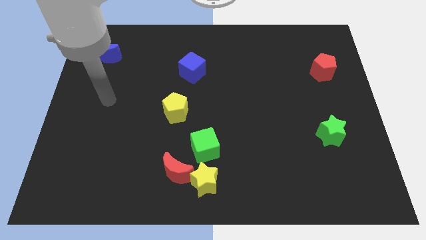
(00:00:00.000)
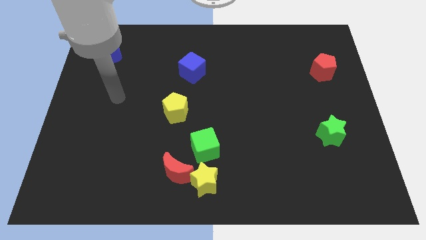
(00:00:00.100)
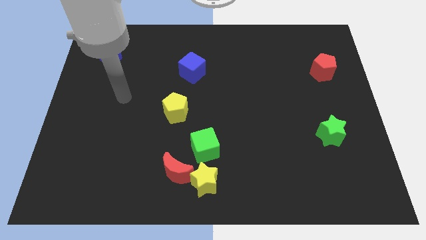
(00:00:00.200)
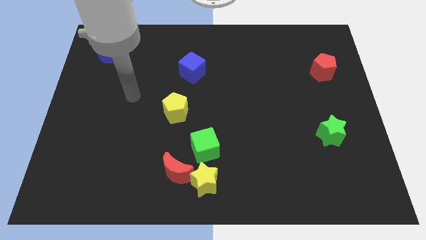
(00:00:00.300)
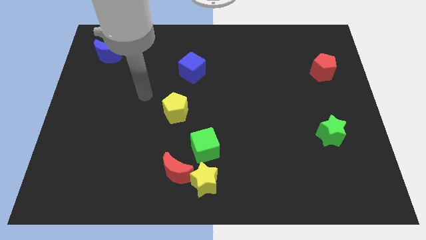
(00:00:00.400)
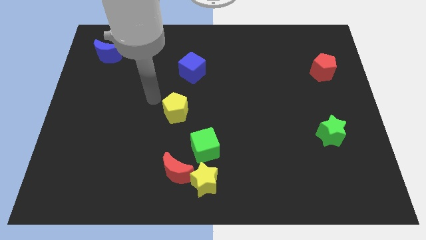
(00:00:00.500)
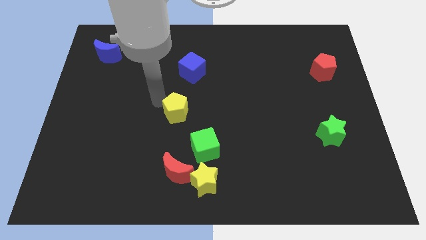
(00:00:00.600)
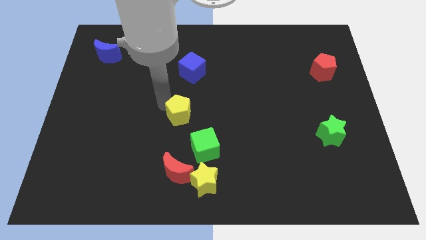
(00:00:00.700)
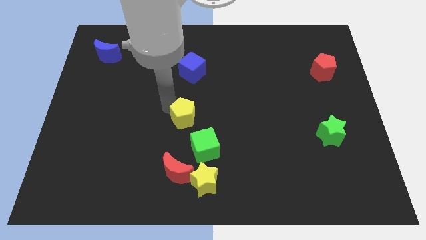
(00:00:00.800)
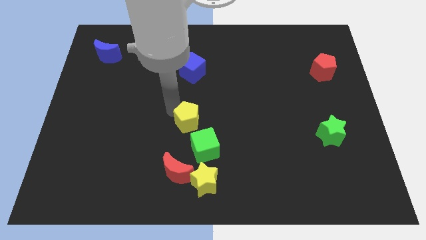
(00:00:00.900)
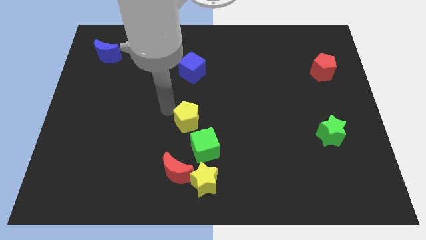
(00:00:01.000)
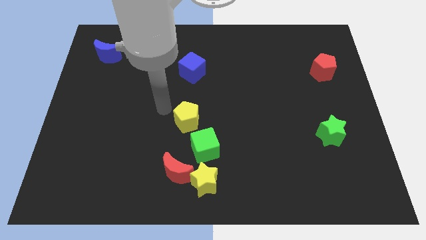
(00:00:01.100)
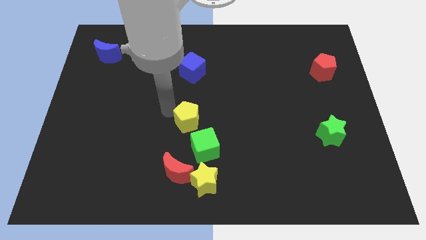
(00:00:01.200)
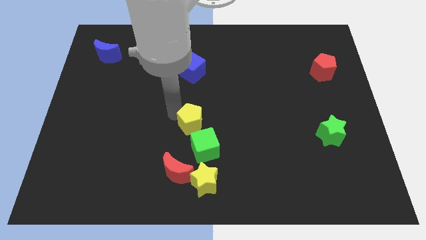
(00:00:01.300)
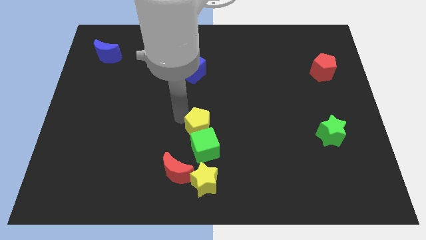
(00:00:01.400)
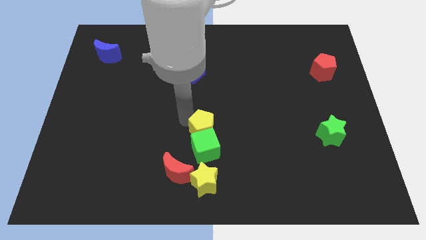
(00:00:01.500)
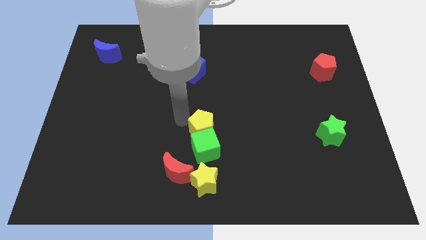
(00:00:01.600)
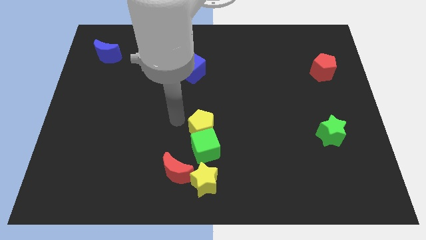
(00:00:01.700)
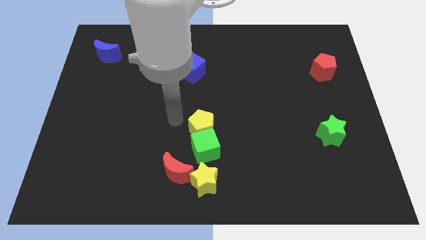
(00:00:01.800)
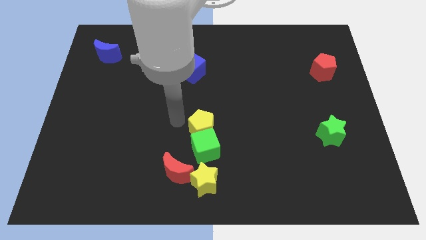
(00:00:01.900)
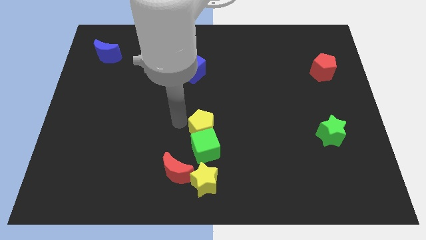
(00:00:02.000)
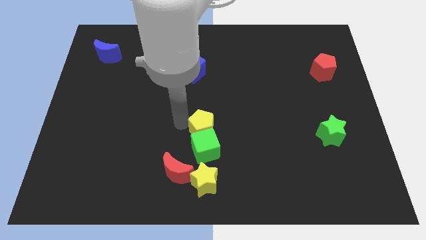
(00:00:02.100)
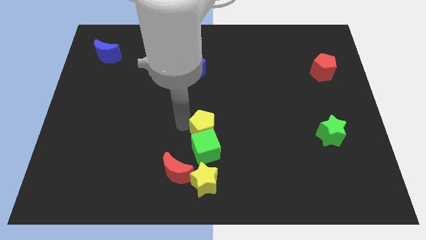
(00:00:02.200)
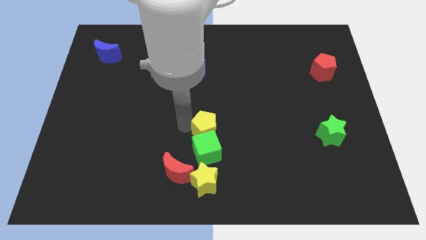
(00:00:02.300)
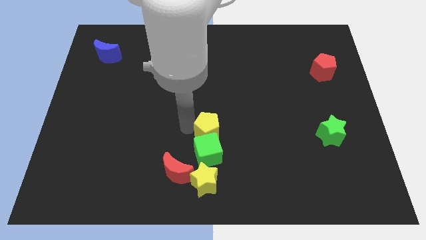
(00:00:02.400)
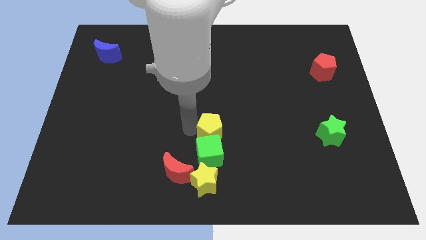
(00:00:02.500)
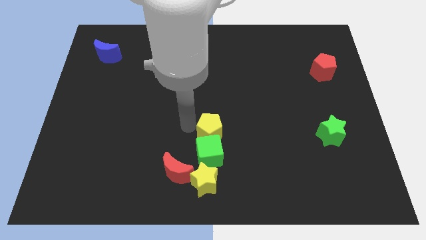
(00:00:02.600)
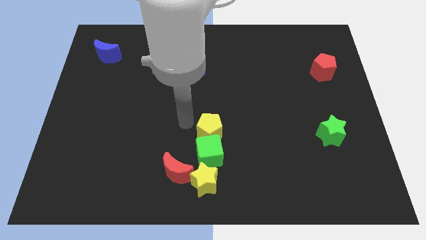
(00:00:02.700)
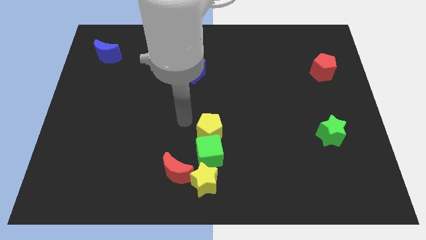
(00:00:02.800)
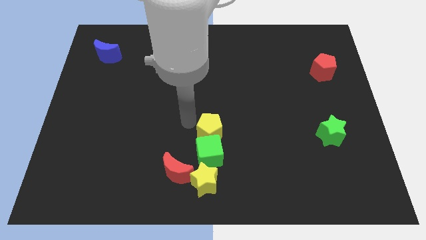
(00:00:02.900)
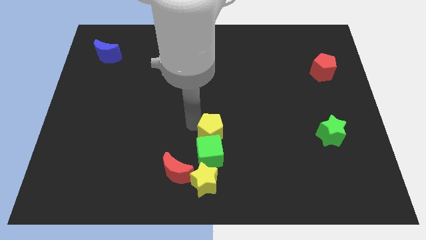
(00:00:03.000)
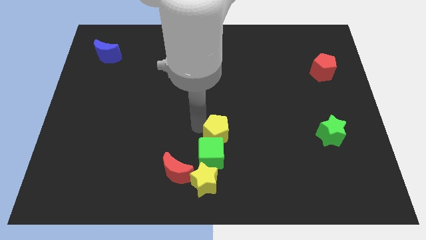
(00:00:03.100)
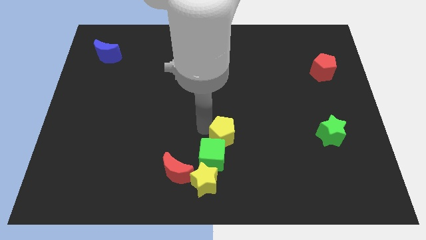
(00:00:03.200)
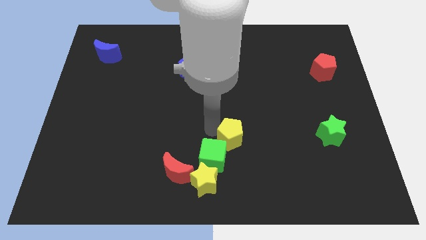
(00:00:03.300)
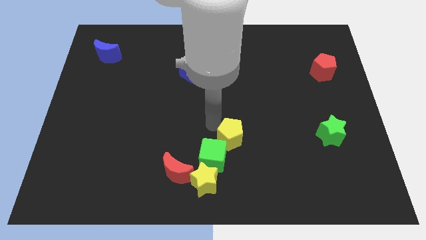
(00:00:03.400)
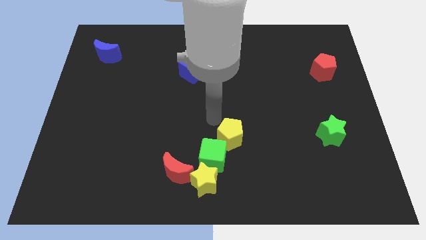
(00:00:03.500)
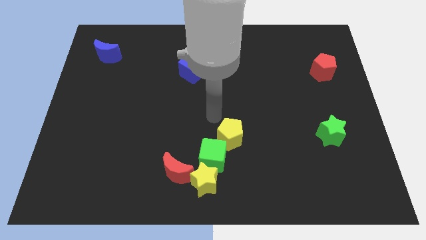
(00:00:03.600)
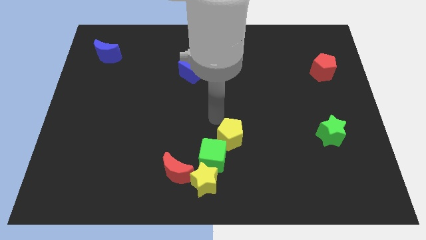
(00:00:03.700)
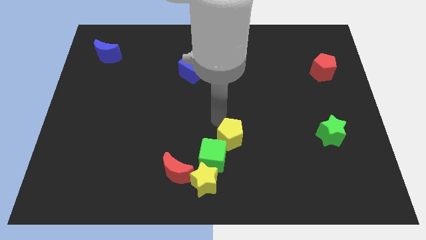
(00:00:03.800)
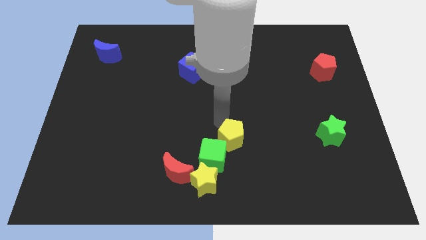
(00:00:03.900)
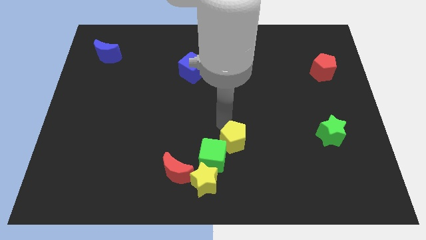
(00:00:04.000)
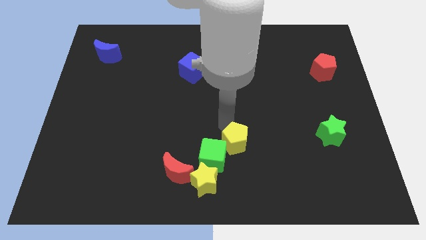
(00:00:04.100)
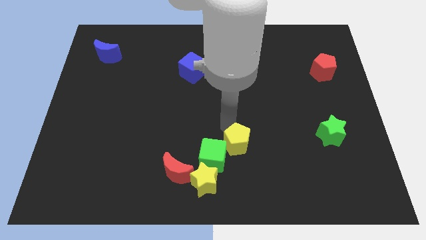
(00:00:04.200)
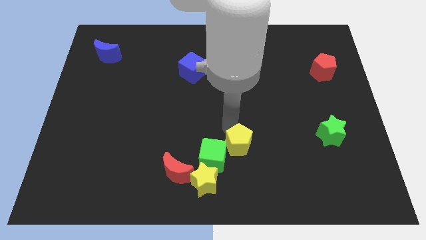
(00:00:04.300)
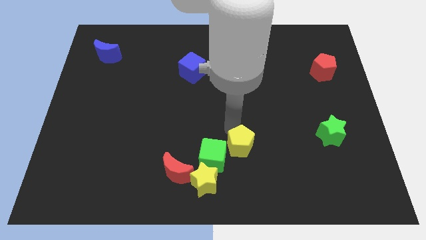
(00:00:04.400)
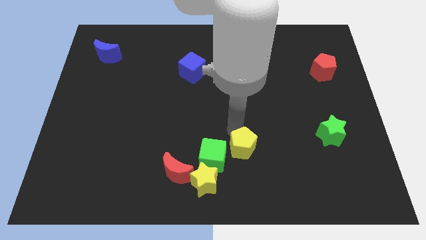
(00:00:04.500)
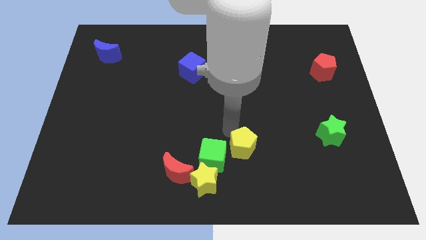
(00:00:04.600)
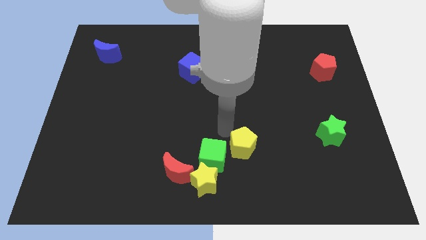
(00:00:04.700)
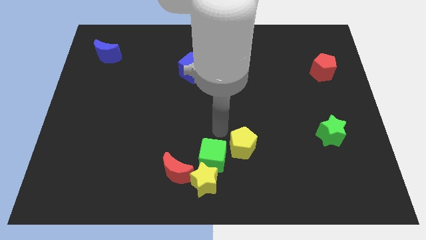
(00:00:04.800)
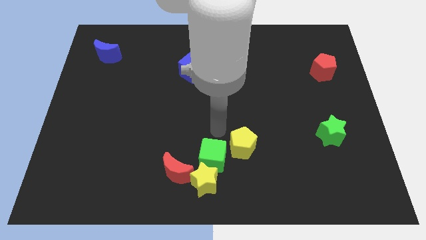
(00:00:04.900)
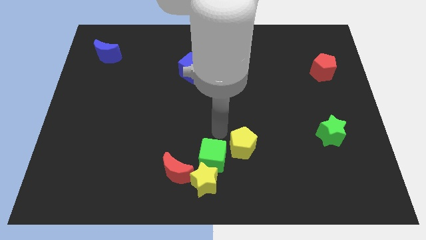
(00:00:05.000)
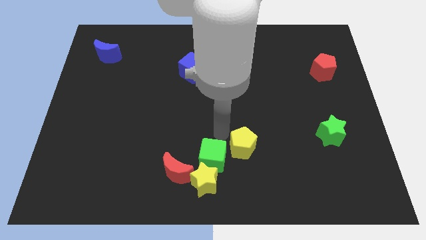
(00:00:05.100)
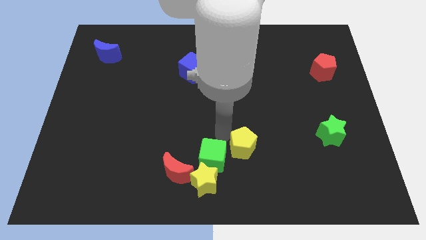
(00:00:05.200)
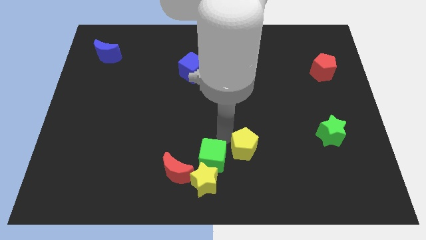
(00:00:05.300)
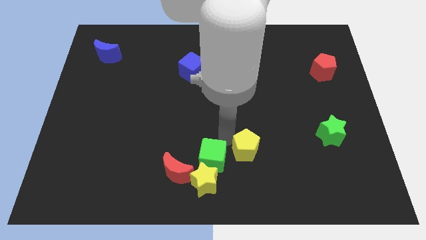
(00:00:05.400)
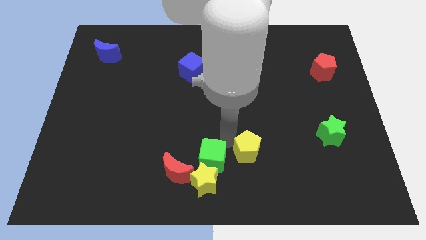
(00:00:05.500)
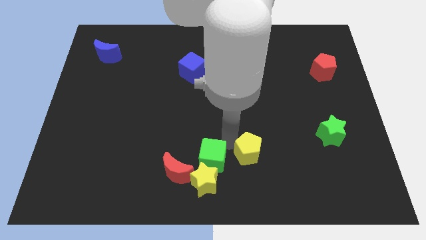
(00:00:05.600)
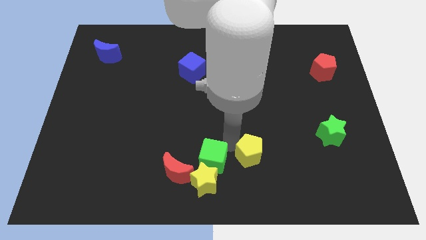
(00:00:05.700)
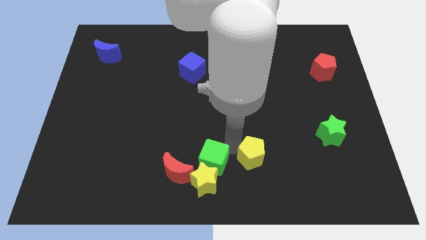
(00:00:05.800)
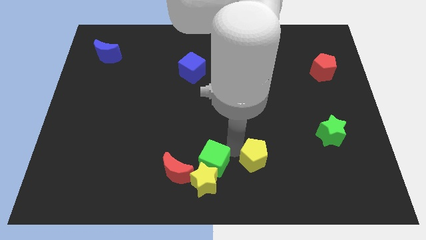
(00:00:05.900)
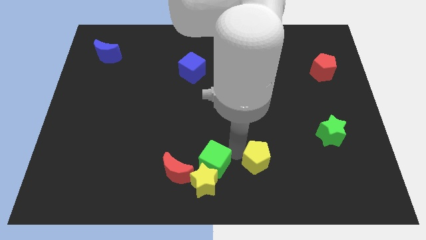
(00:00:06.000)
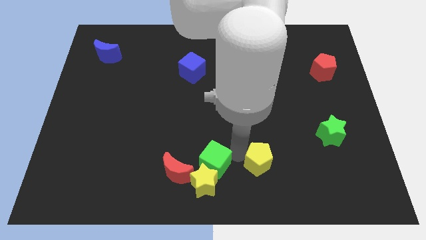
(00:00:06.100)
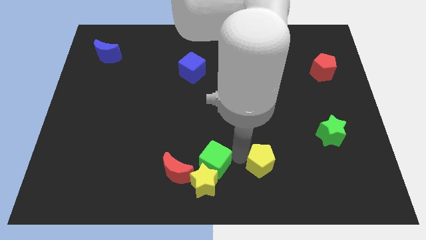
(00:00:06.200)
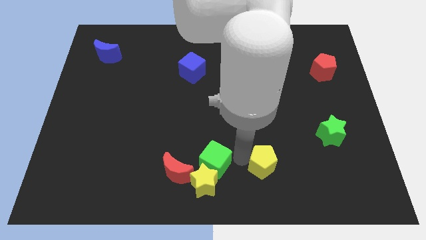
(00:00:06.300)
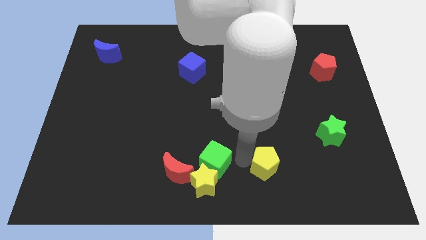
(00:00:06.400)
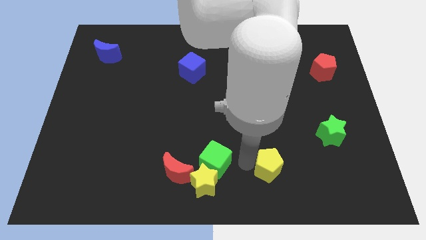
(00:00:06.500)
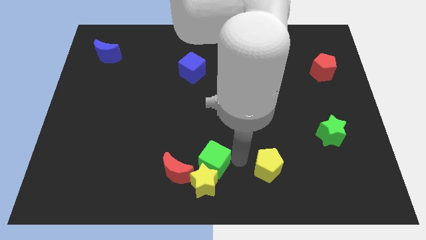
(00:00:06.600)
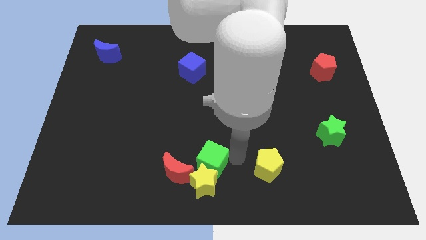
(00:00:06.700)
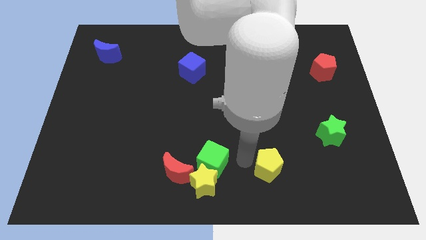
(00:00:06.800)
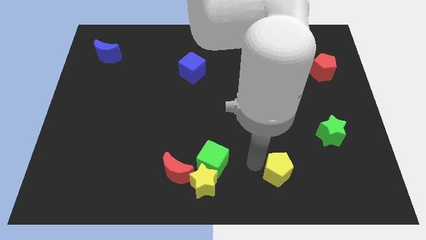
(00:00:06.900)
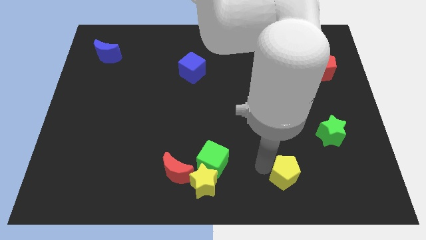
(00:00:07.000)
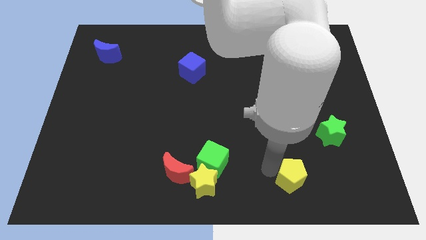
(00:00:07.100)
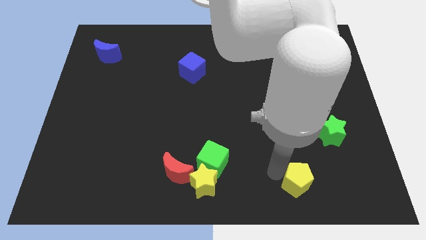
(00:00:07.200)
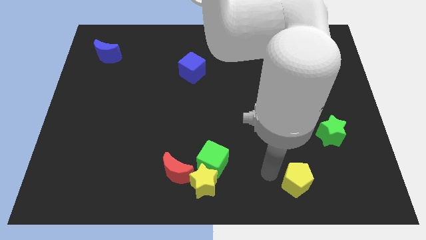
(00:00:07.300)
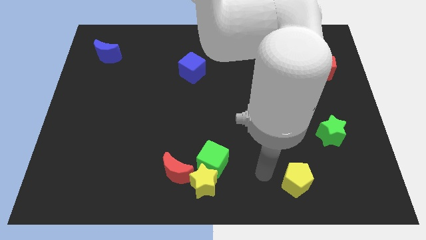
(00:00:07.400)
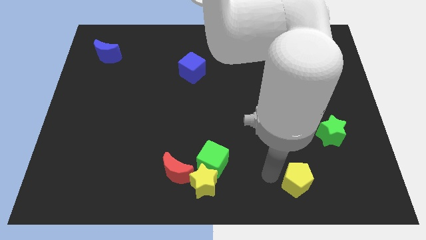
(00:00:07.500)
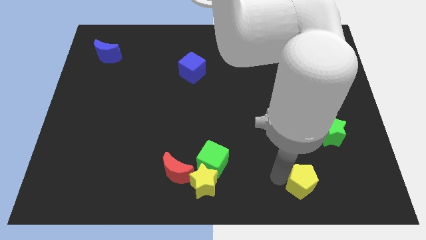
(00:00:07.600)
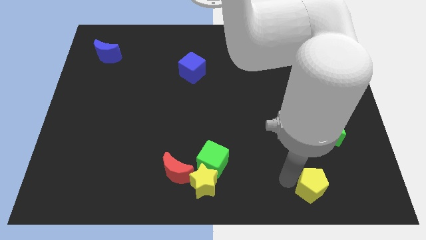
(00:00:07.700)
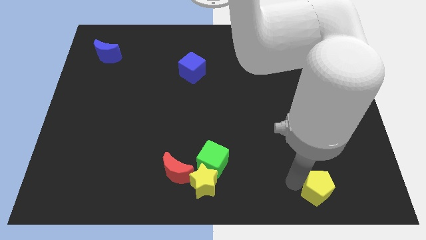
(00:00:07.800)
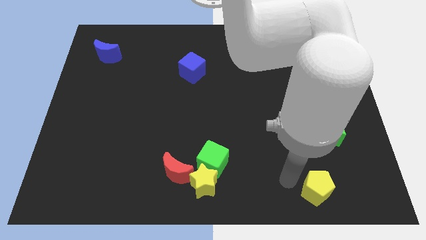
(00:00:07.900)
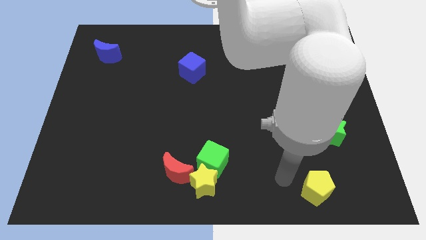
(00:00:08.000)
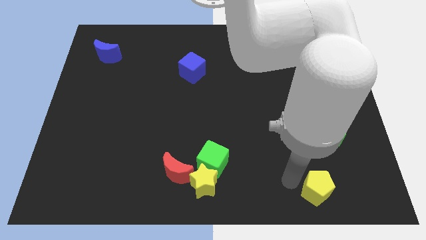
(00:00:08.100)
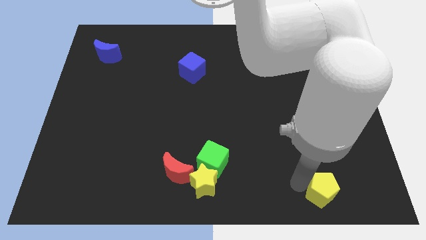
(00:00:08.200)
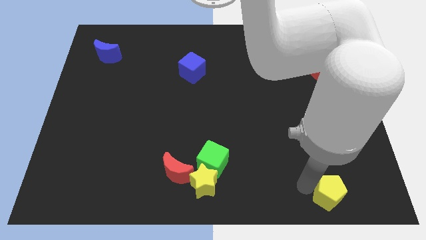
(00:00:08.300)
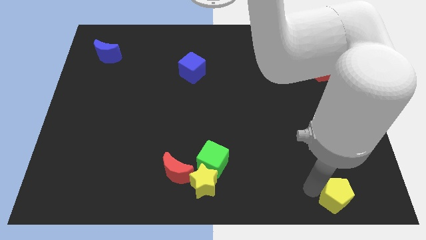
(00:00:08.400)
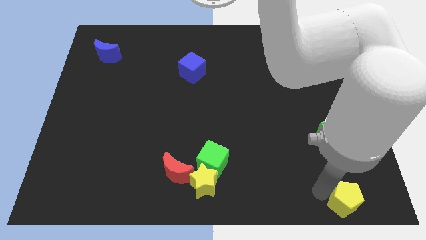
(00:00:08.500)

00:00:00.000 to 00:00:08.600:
move the yellow pentagon to the bottom right corner
